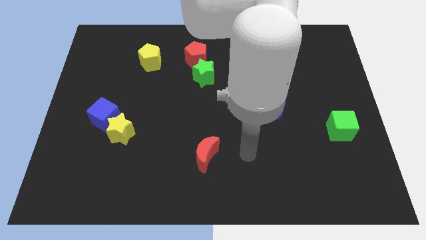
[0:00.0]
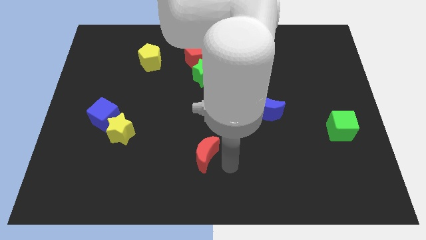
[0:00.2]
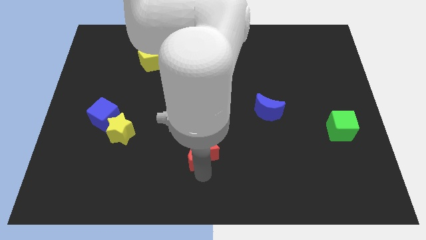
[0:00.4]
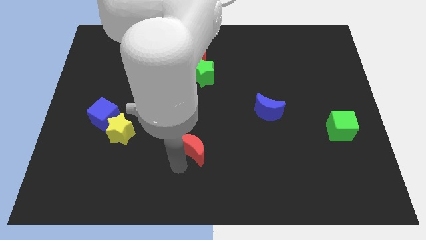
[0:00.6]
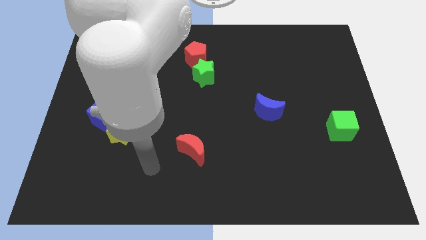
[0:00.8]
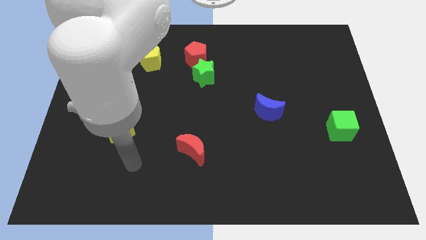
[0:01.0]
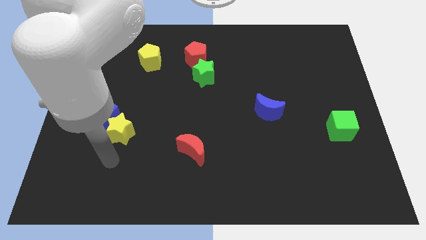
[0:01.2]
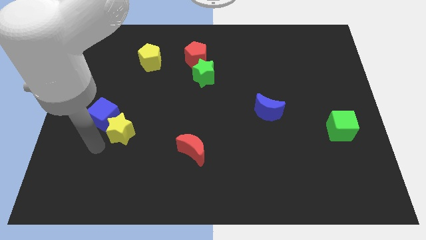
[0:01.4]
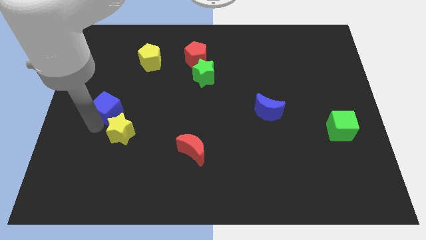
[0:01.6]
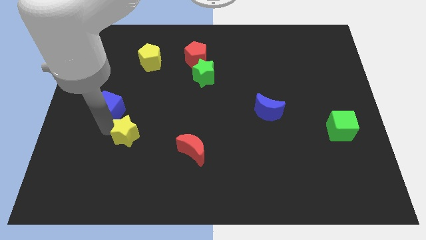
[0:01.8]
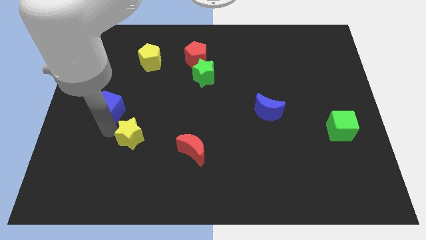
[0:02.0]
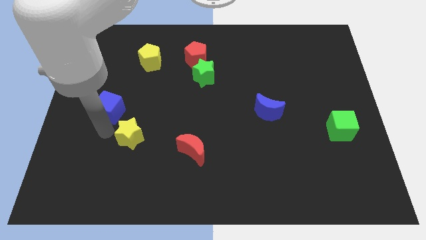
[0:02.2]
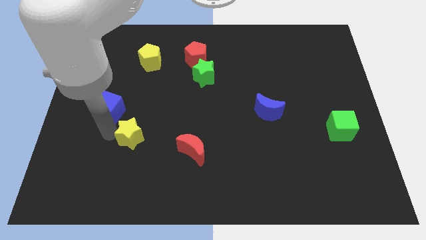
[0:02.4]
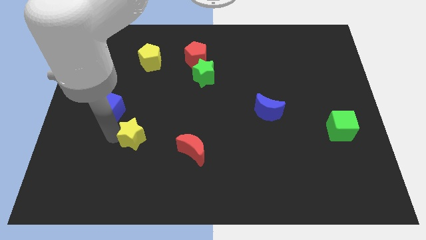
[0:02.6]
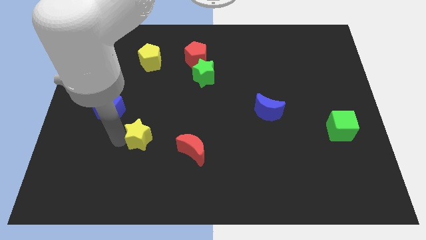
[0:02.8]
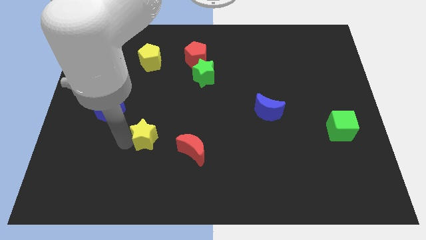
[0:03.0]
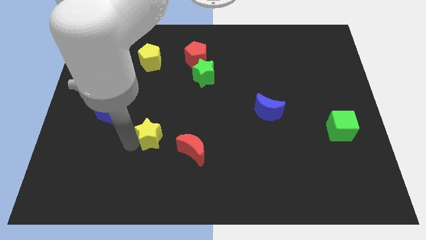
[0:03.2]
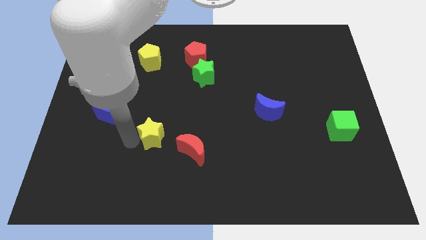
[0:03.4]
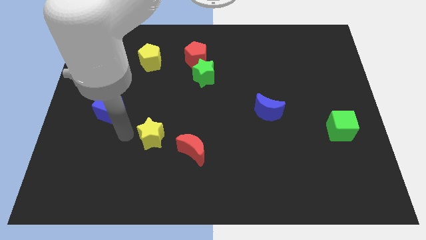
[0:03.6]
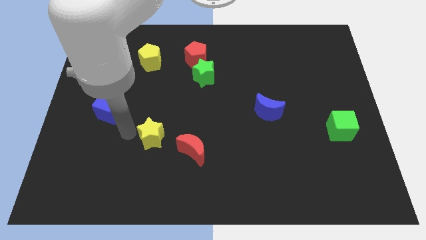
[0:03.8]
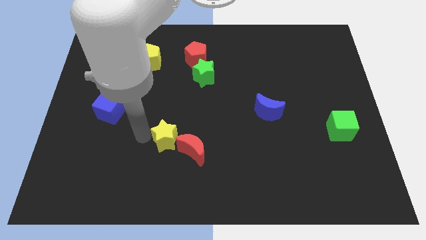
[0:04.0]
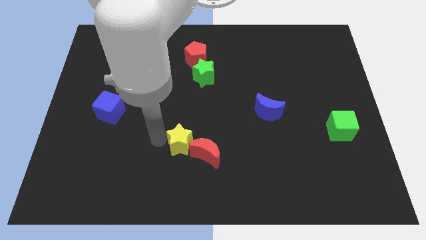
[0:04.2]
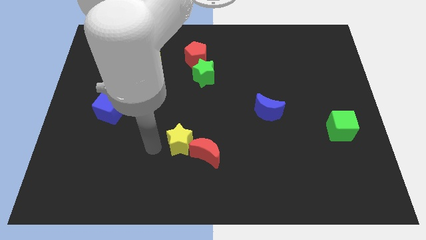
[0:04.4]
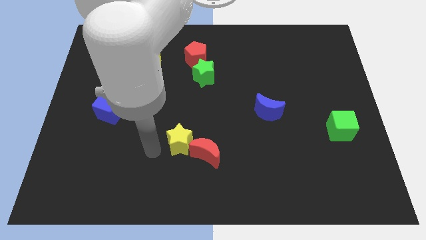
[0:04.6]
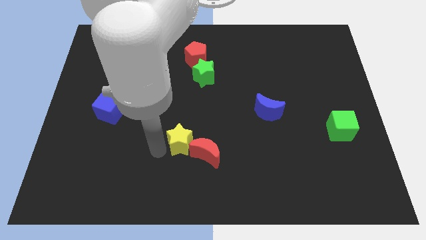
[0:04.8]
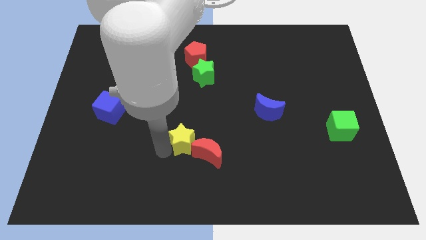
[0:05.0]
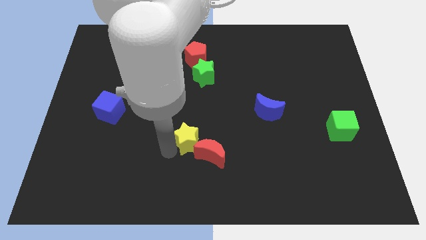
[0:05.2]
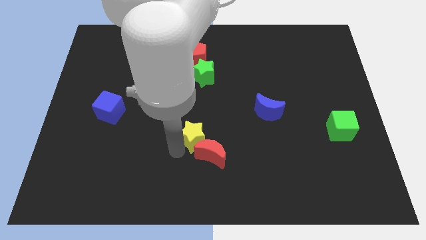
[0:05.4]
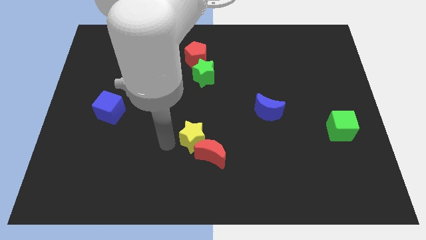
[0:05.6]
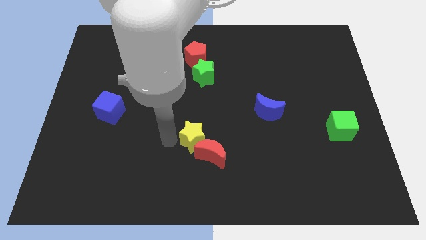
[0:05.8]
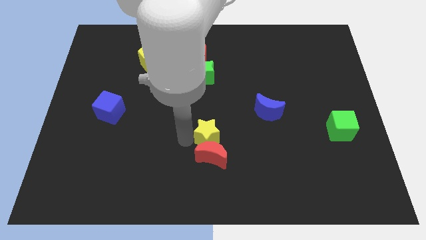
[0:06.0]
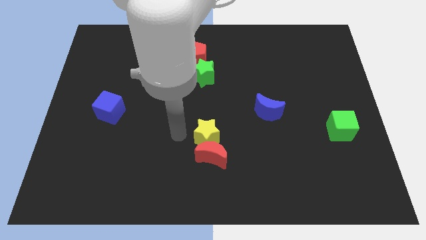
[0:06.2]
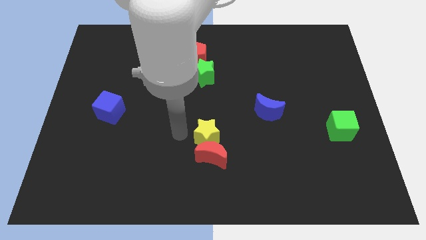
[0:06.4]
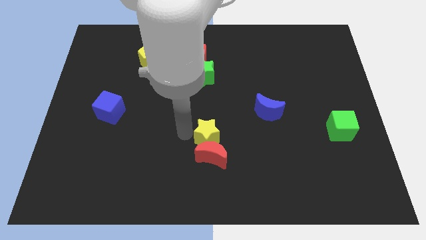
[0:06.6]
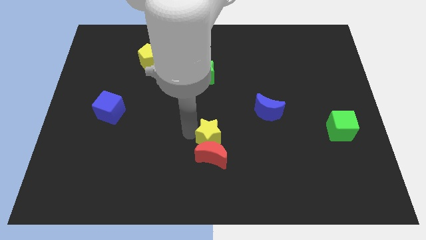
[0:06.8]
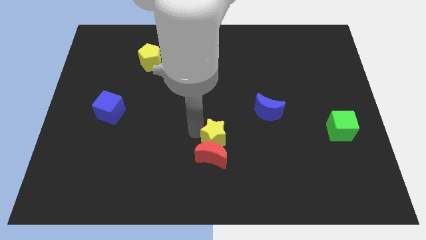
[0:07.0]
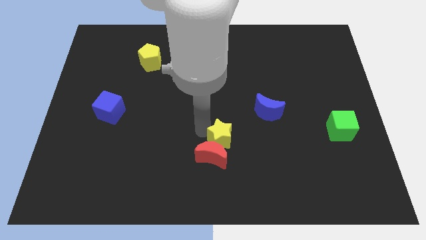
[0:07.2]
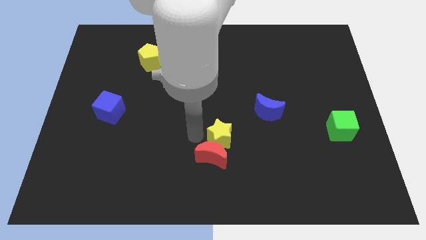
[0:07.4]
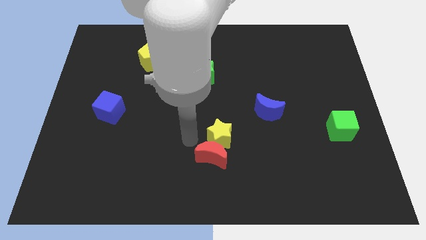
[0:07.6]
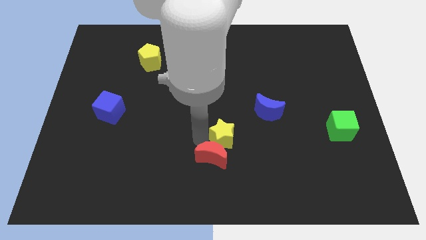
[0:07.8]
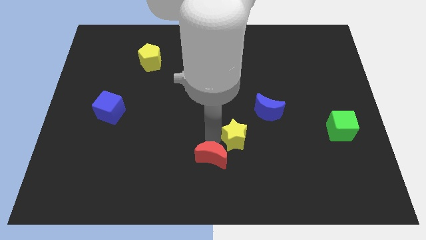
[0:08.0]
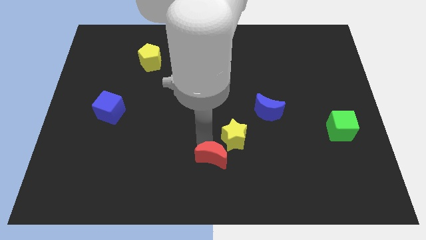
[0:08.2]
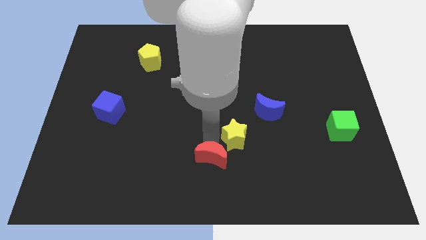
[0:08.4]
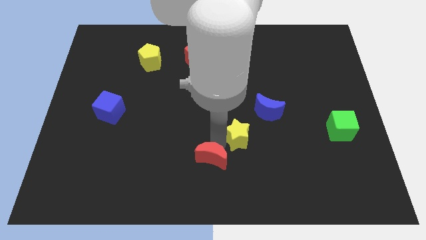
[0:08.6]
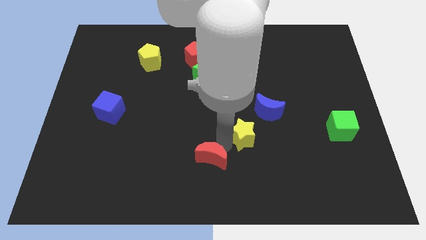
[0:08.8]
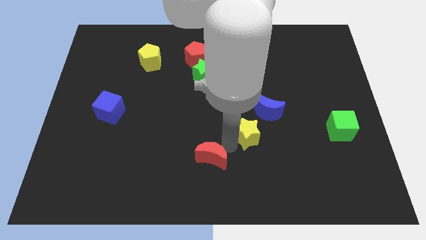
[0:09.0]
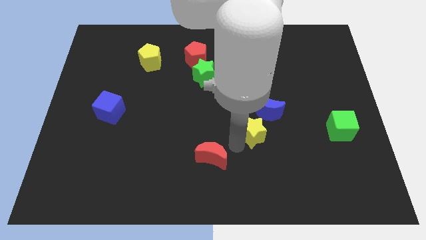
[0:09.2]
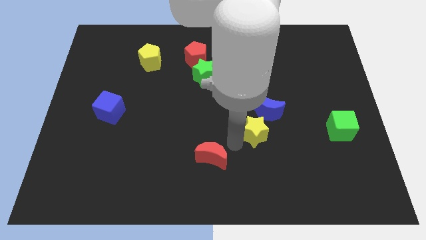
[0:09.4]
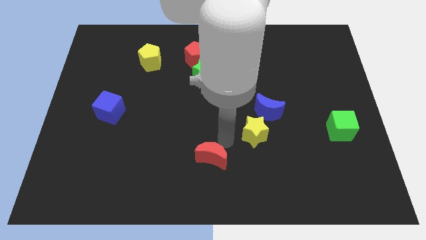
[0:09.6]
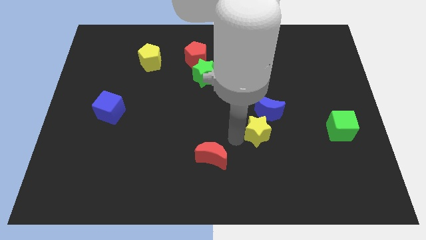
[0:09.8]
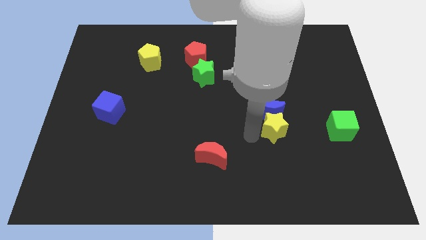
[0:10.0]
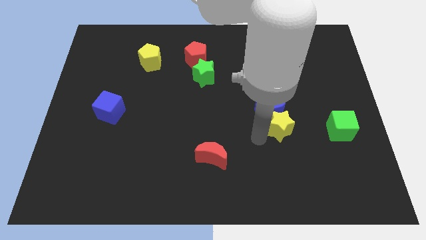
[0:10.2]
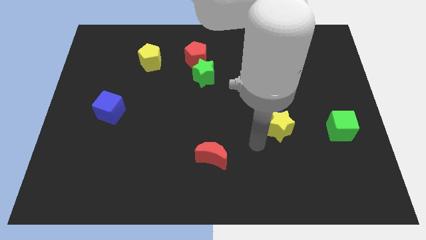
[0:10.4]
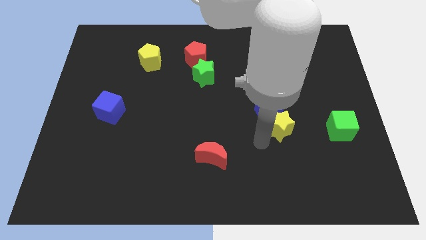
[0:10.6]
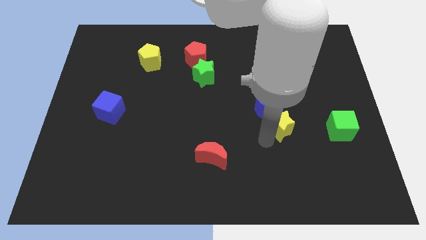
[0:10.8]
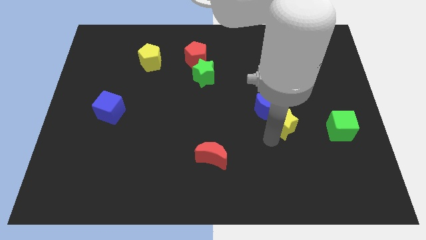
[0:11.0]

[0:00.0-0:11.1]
move the yellow star to the right side of the blue moon

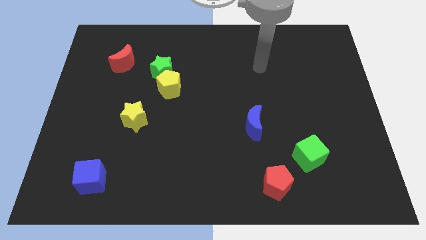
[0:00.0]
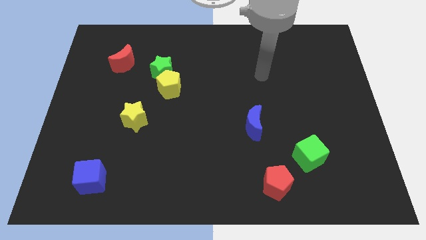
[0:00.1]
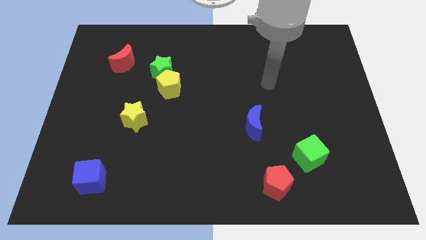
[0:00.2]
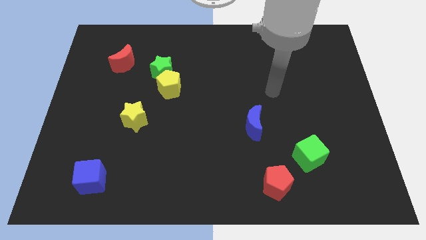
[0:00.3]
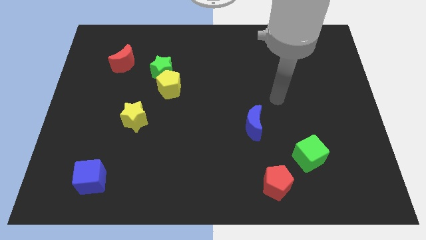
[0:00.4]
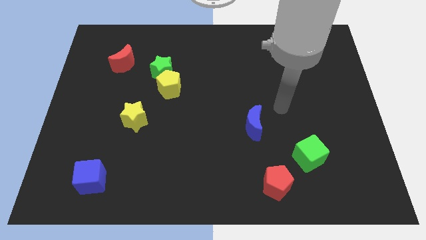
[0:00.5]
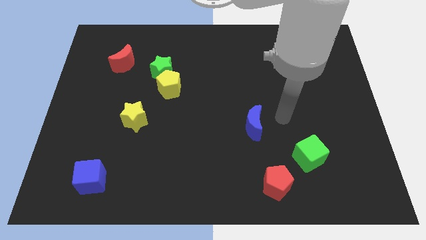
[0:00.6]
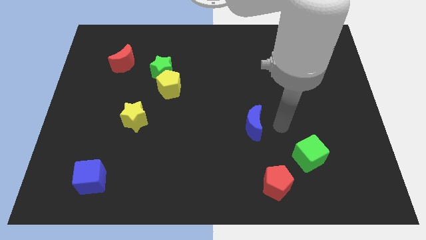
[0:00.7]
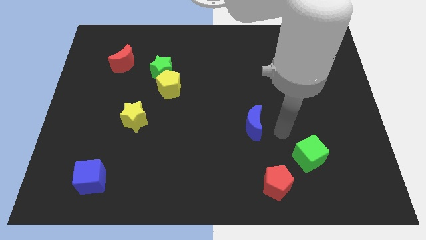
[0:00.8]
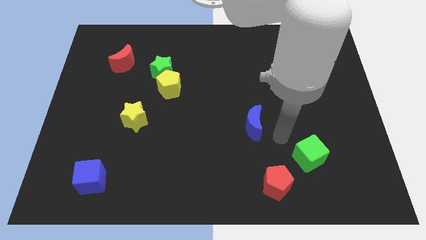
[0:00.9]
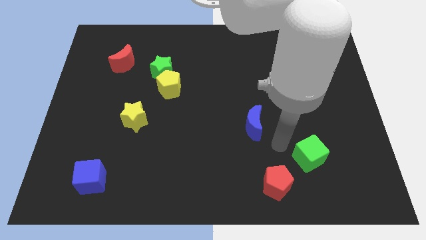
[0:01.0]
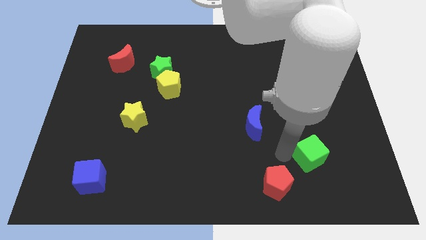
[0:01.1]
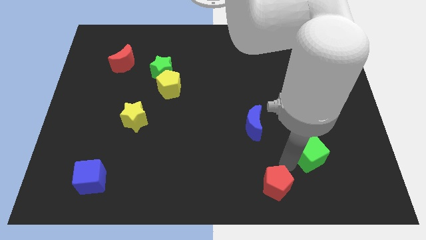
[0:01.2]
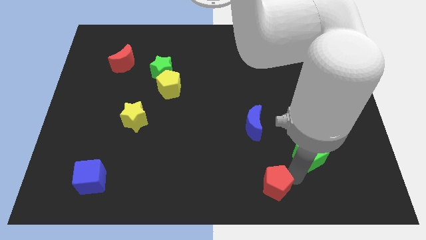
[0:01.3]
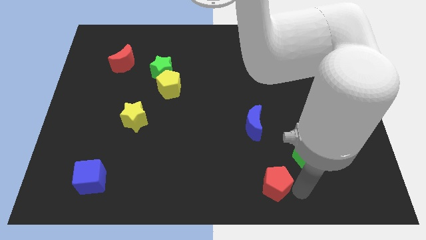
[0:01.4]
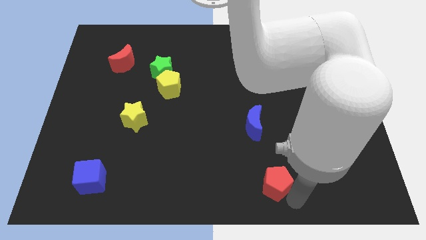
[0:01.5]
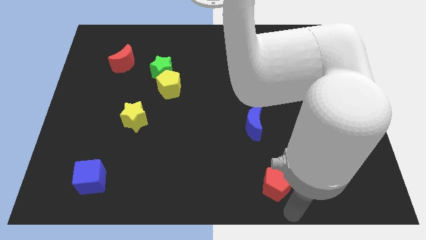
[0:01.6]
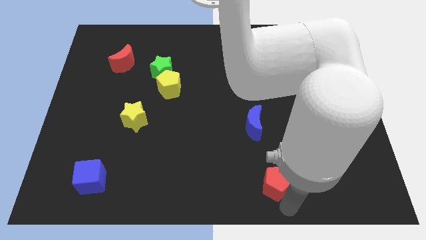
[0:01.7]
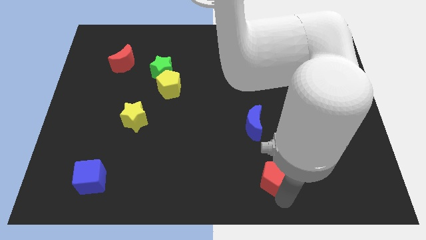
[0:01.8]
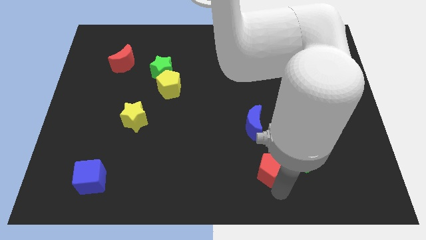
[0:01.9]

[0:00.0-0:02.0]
push the red pentagon to the left side of the green cube
